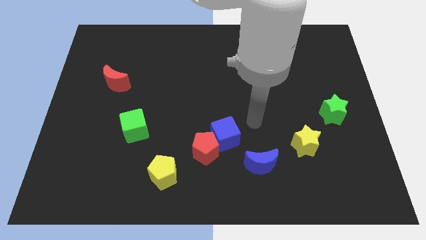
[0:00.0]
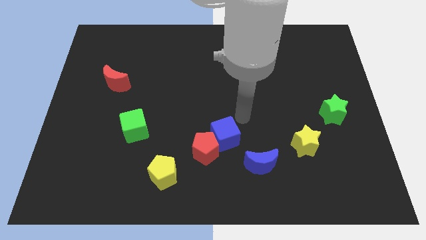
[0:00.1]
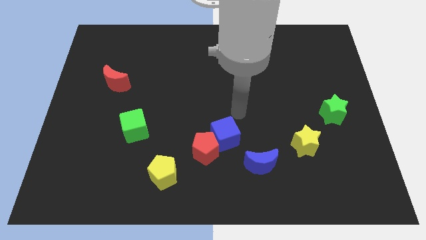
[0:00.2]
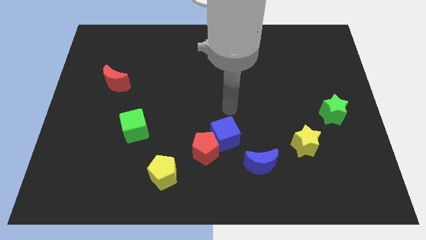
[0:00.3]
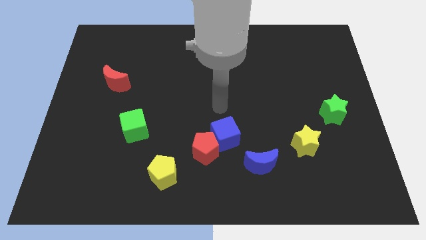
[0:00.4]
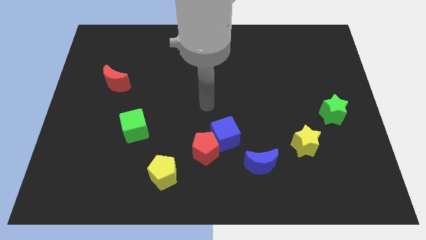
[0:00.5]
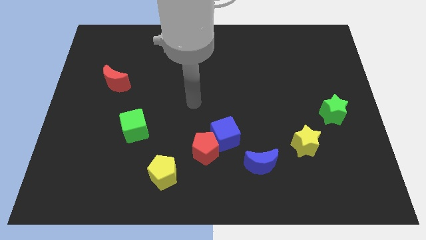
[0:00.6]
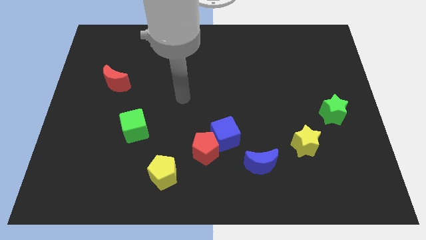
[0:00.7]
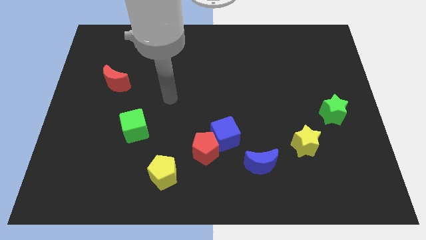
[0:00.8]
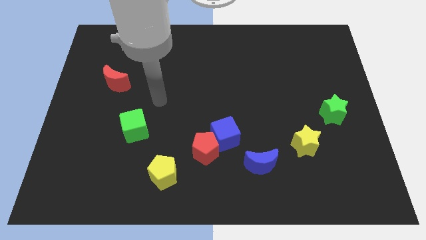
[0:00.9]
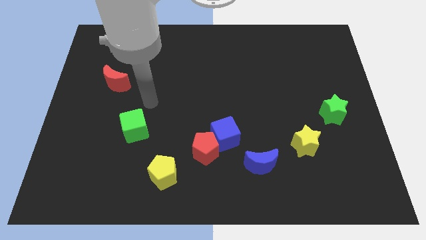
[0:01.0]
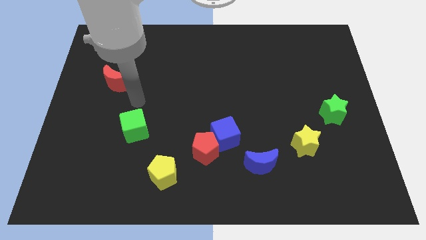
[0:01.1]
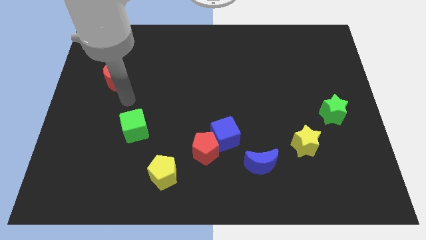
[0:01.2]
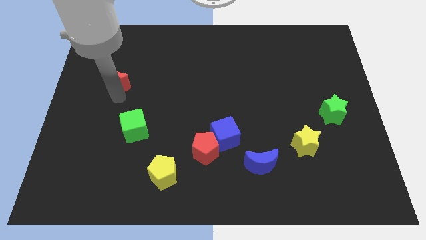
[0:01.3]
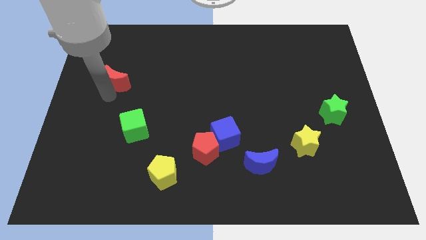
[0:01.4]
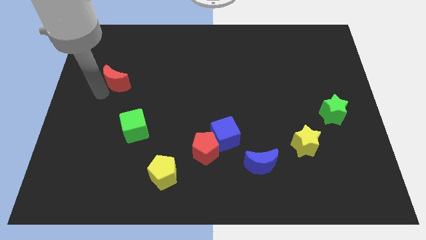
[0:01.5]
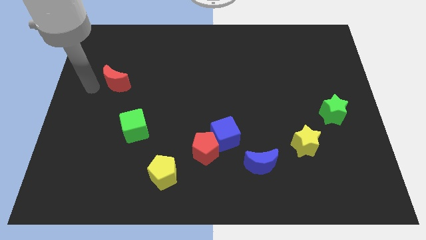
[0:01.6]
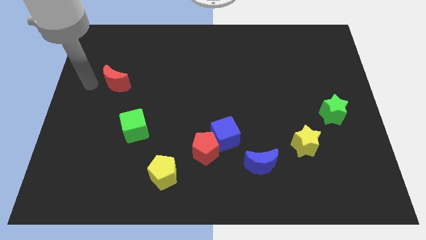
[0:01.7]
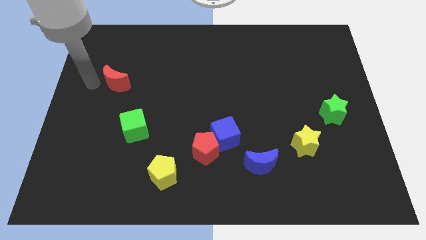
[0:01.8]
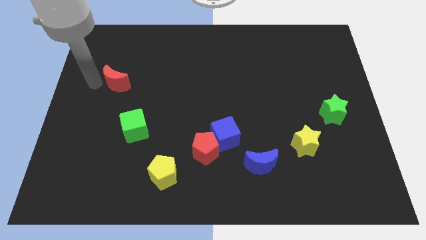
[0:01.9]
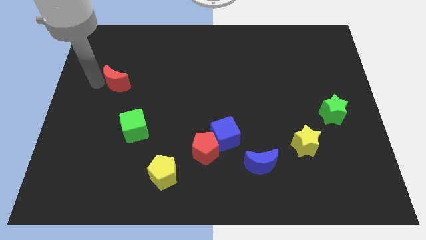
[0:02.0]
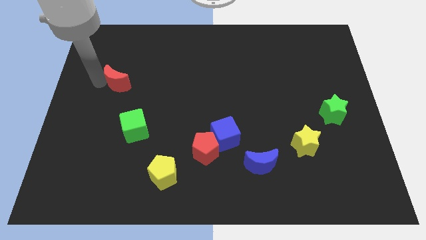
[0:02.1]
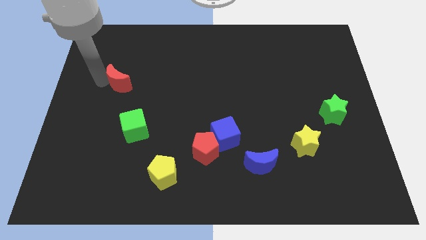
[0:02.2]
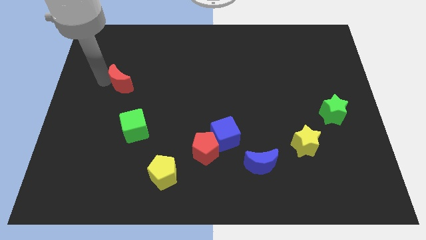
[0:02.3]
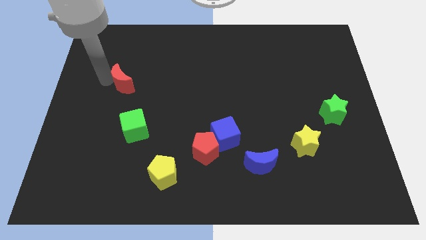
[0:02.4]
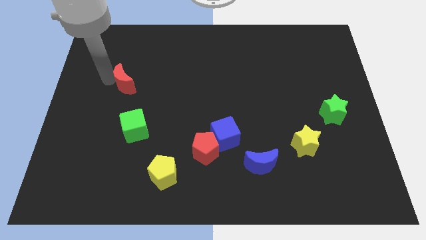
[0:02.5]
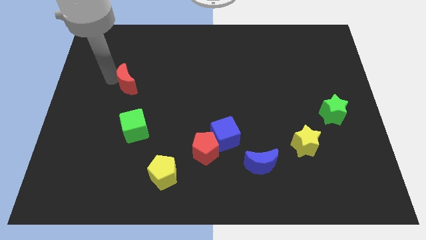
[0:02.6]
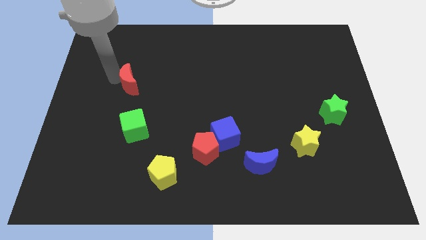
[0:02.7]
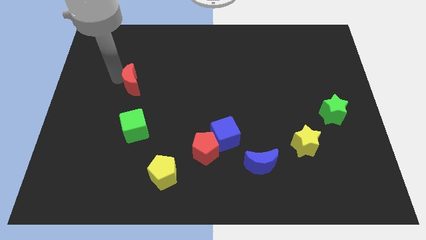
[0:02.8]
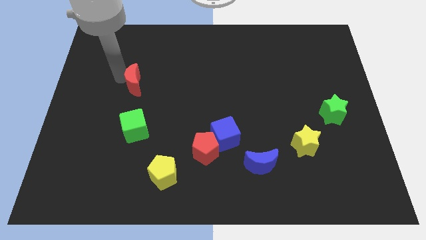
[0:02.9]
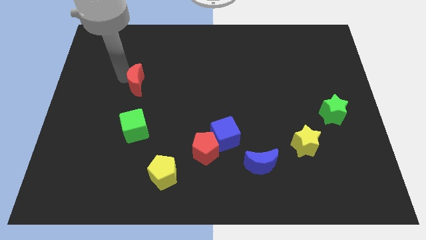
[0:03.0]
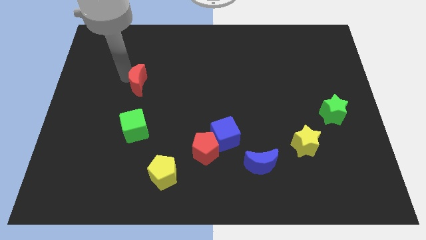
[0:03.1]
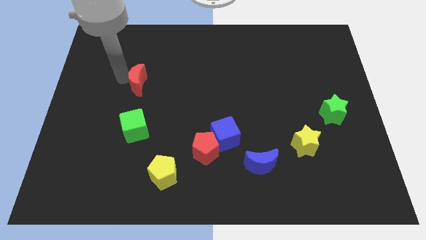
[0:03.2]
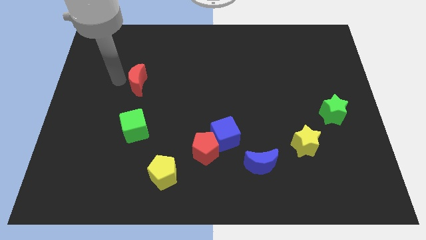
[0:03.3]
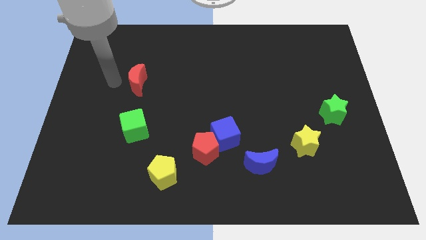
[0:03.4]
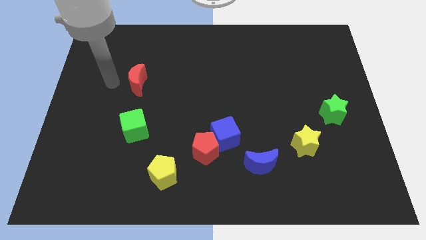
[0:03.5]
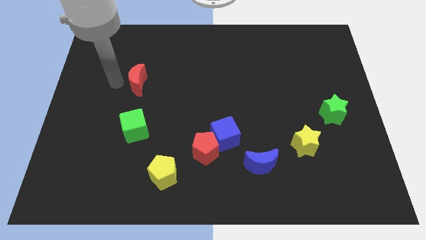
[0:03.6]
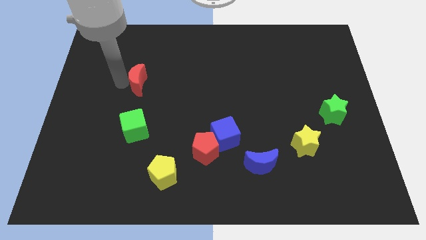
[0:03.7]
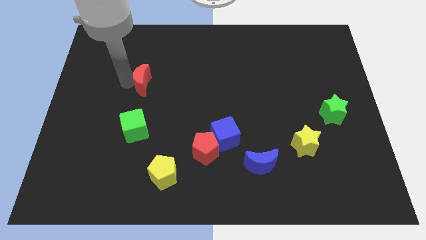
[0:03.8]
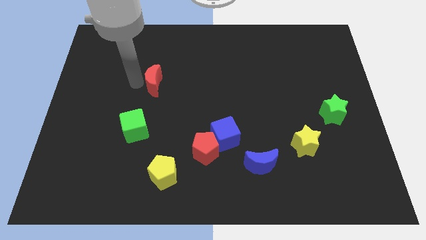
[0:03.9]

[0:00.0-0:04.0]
move the red moon a little bit to the right

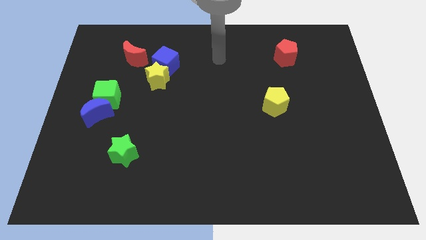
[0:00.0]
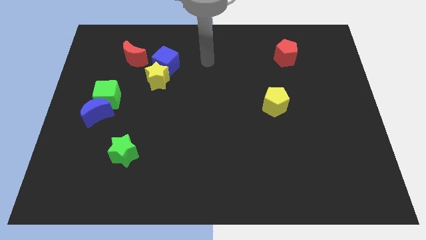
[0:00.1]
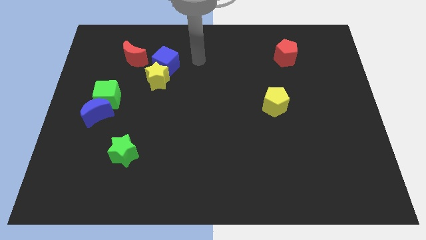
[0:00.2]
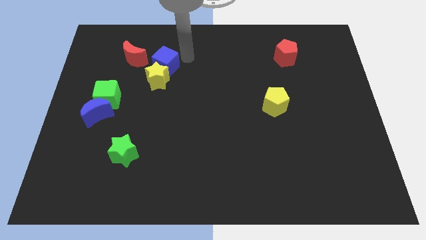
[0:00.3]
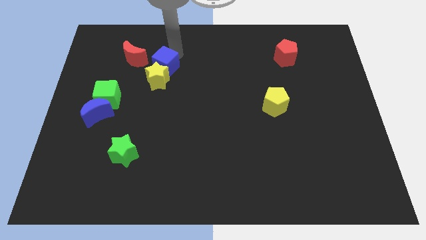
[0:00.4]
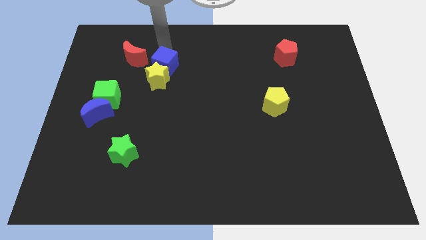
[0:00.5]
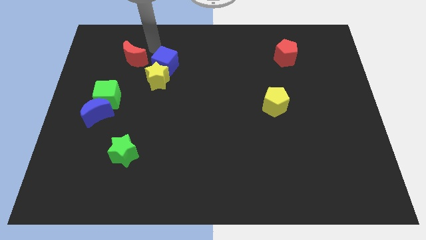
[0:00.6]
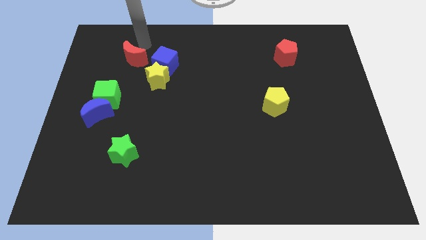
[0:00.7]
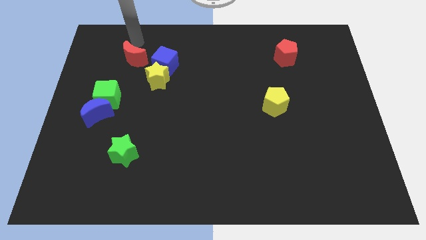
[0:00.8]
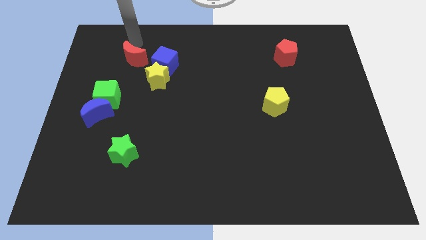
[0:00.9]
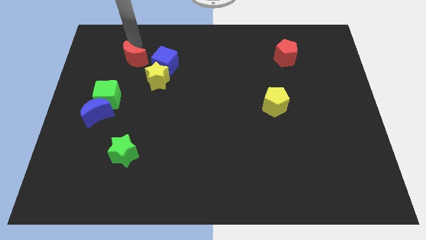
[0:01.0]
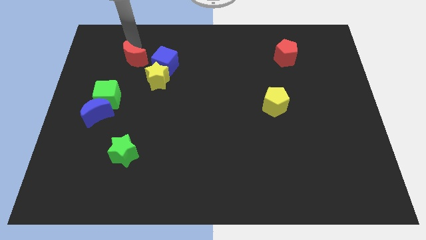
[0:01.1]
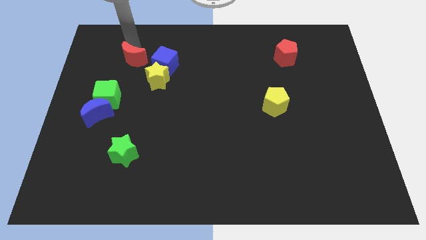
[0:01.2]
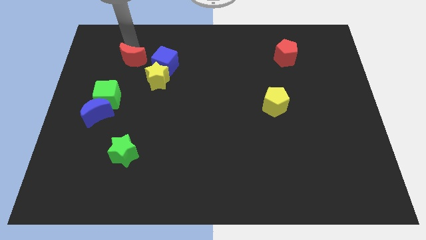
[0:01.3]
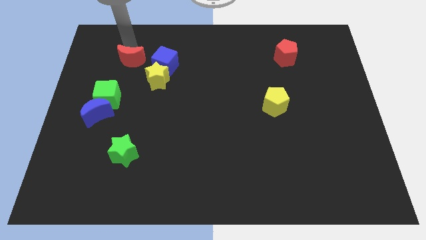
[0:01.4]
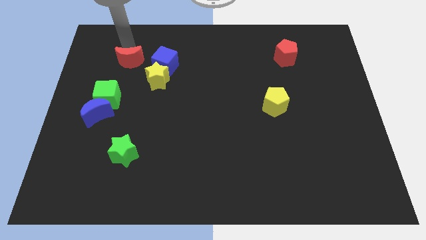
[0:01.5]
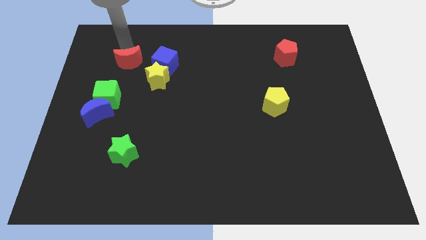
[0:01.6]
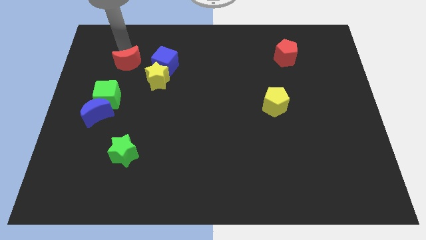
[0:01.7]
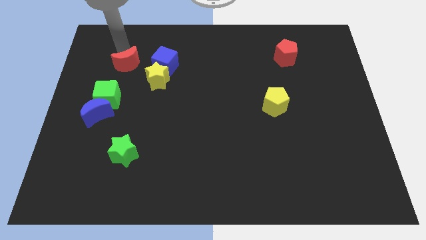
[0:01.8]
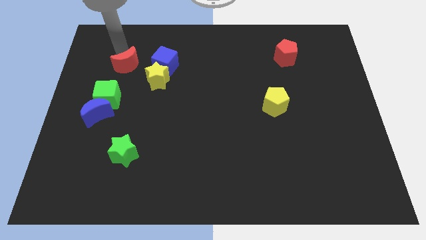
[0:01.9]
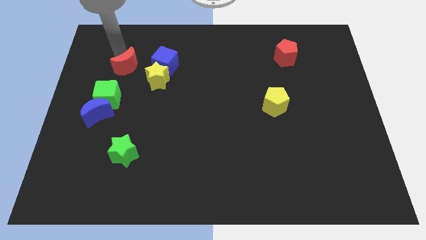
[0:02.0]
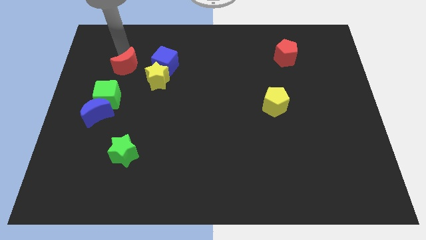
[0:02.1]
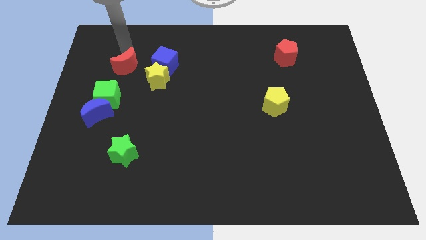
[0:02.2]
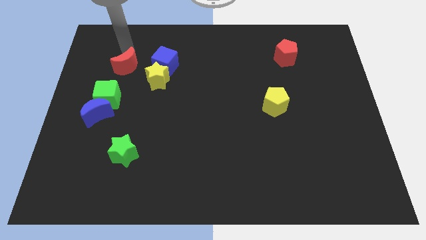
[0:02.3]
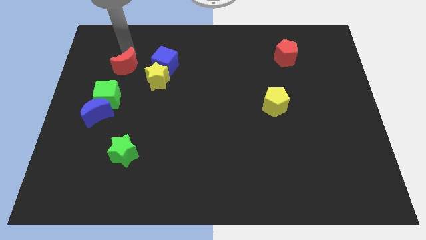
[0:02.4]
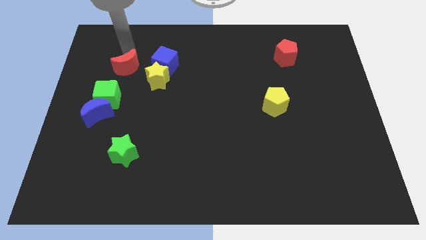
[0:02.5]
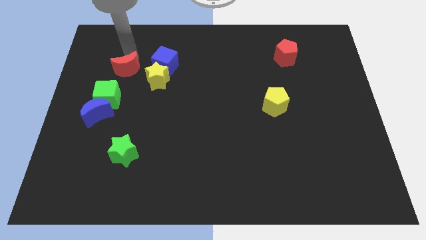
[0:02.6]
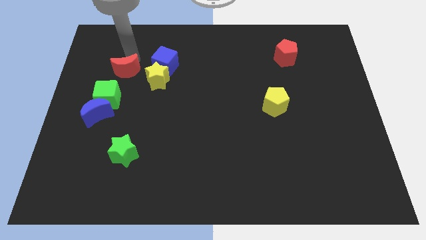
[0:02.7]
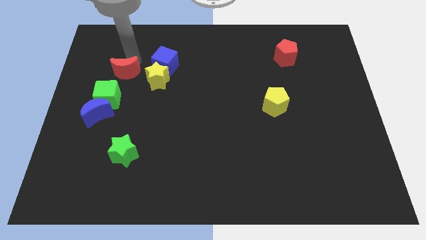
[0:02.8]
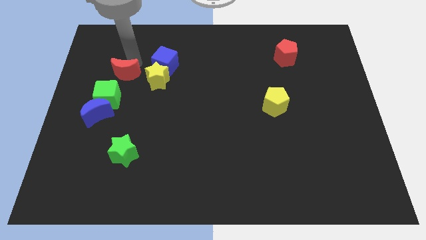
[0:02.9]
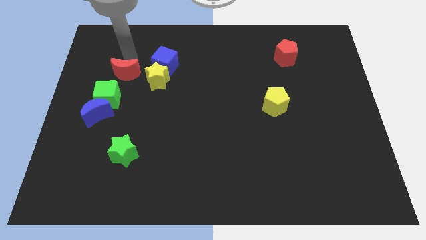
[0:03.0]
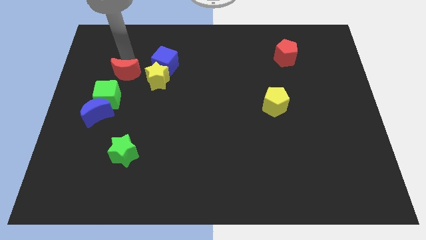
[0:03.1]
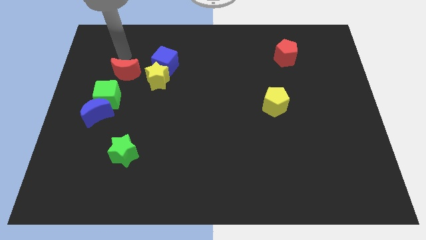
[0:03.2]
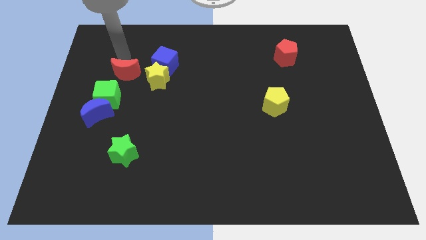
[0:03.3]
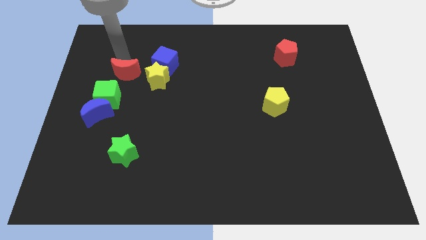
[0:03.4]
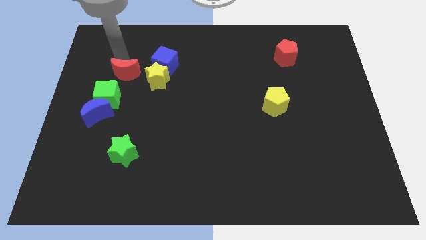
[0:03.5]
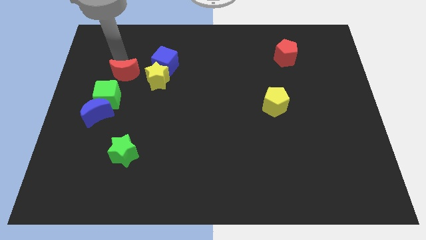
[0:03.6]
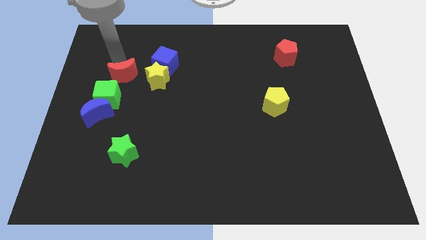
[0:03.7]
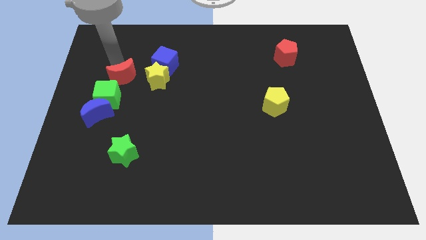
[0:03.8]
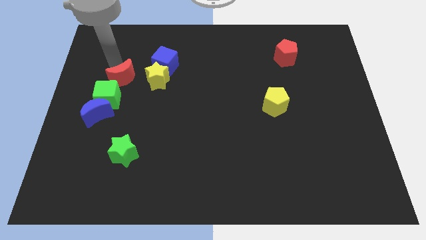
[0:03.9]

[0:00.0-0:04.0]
push the red moon slightly downwards
